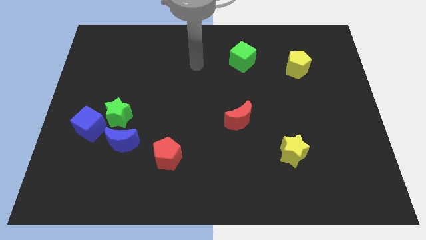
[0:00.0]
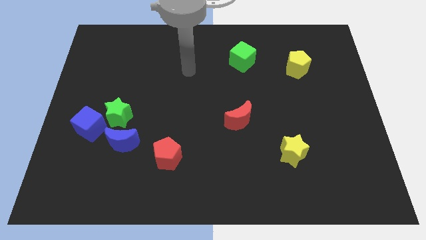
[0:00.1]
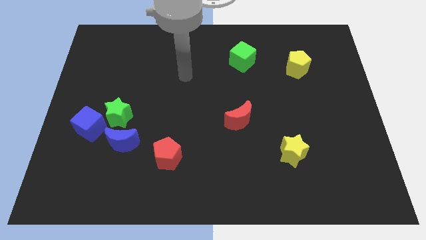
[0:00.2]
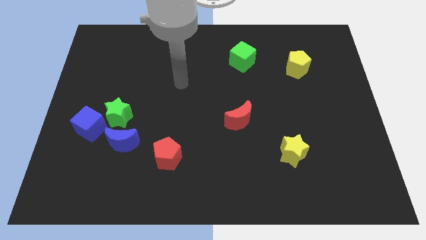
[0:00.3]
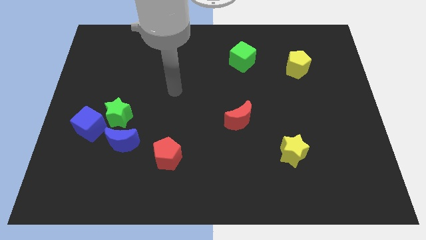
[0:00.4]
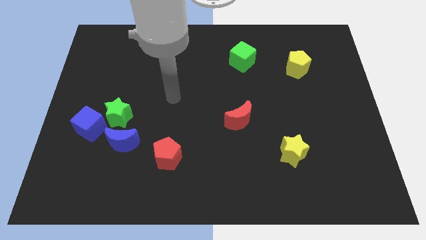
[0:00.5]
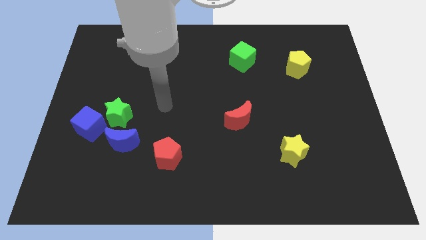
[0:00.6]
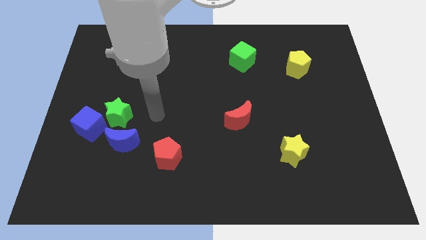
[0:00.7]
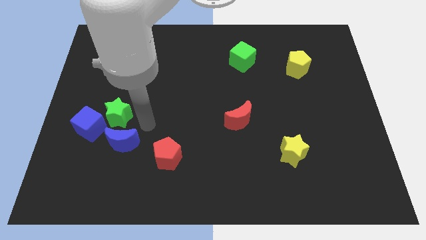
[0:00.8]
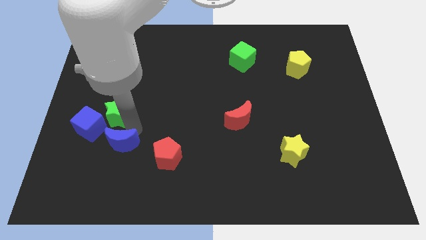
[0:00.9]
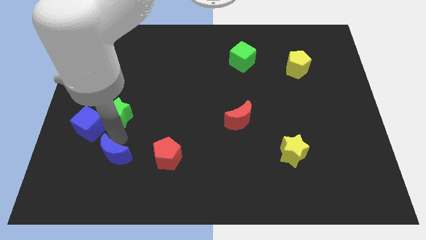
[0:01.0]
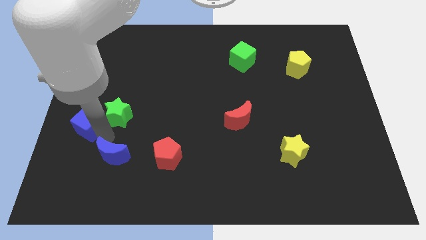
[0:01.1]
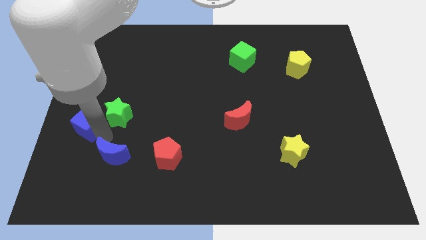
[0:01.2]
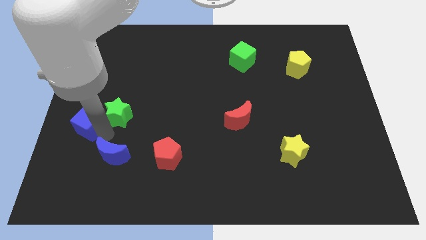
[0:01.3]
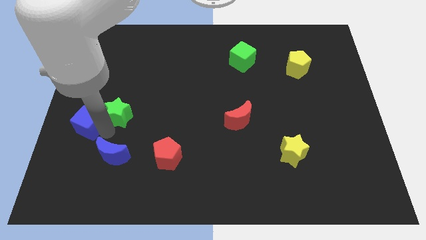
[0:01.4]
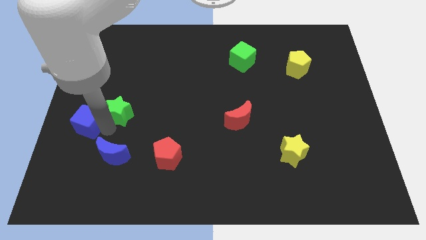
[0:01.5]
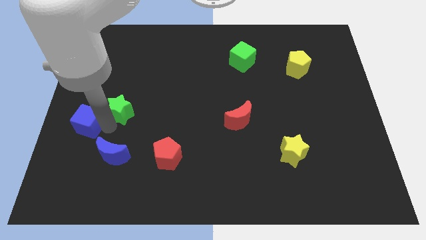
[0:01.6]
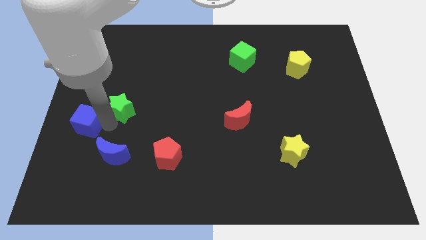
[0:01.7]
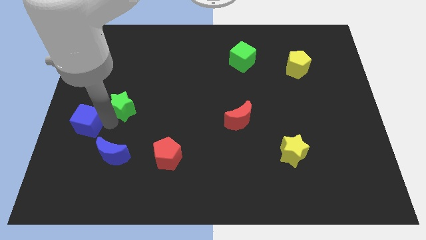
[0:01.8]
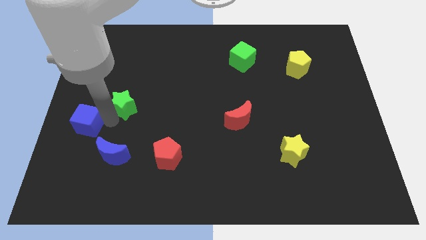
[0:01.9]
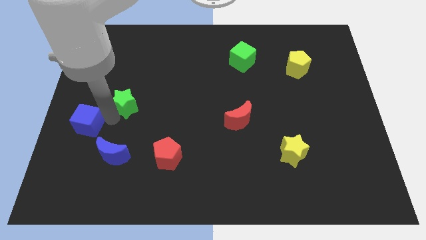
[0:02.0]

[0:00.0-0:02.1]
pull the green star apart from the blue cube and blue moon

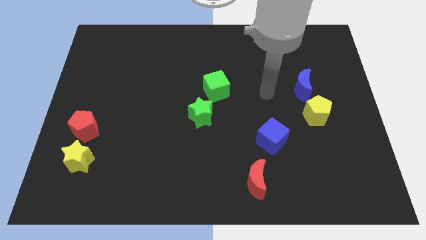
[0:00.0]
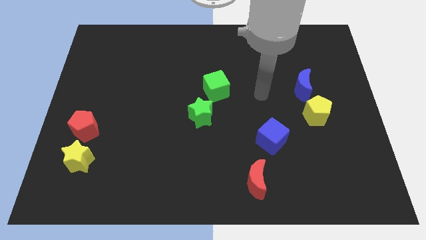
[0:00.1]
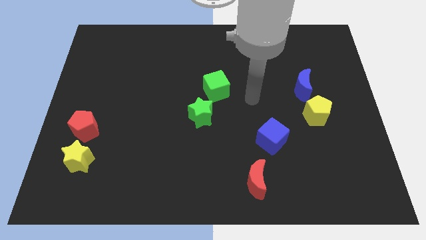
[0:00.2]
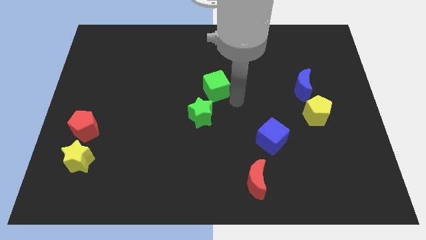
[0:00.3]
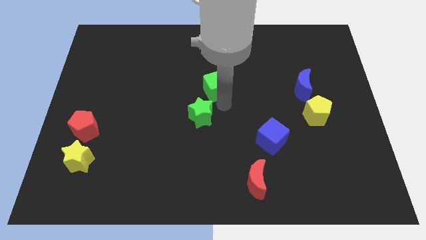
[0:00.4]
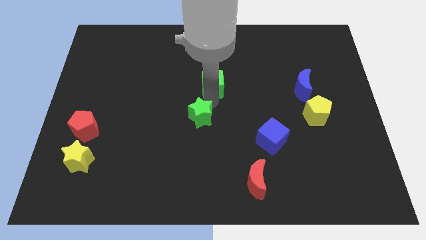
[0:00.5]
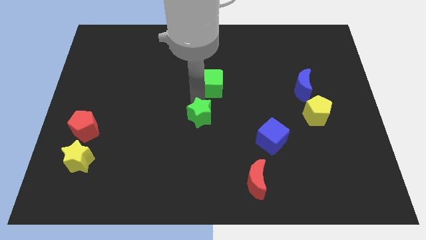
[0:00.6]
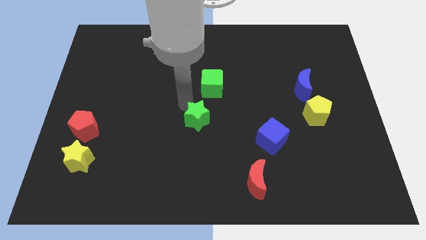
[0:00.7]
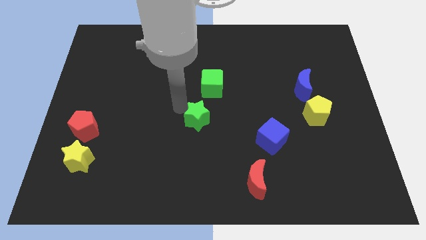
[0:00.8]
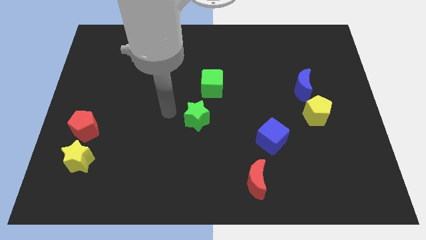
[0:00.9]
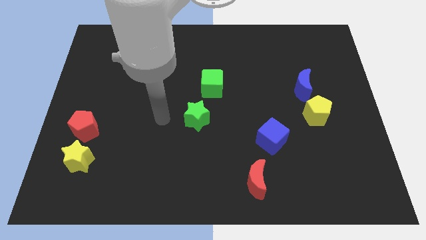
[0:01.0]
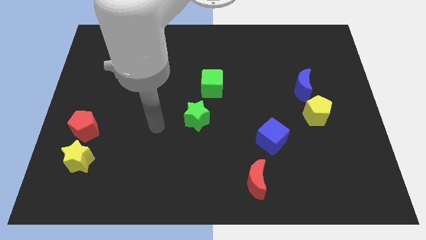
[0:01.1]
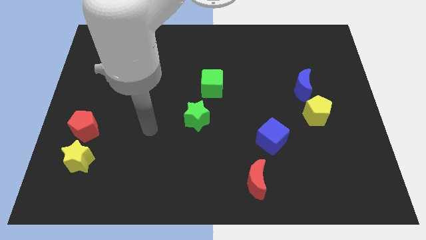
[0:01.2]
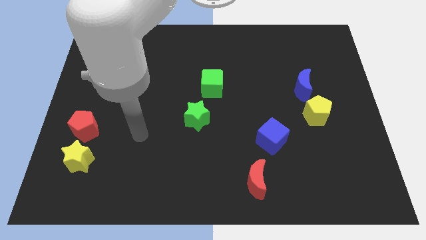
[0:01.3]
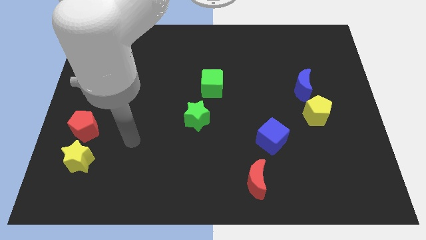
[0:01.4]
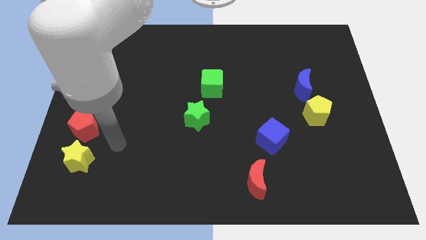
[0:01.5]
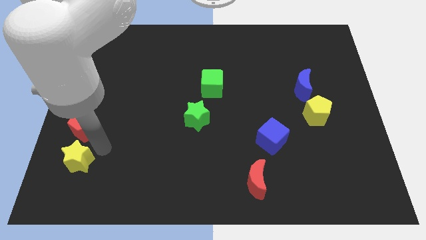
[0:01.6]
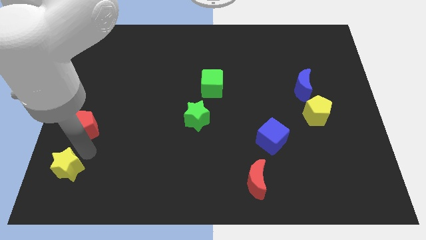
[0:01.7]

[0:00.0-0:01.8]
pull the red pentagon apart from the yellow star

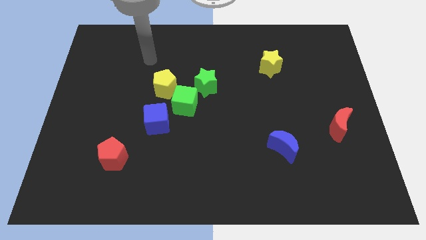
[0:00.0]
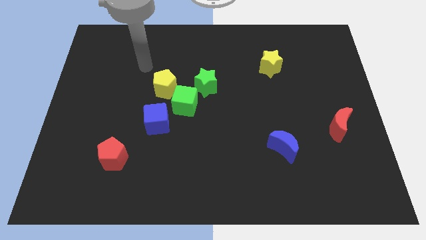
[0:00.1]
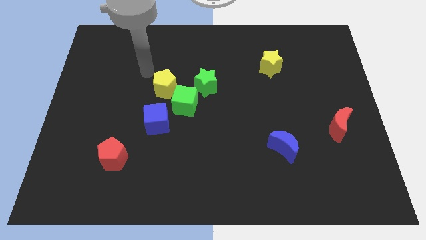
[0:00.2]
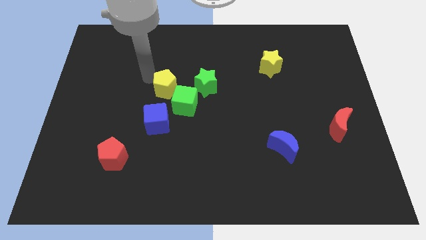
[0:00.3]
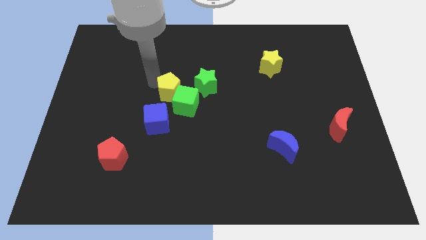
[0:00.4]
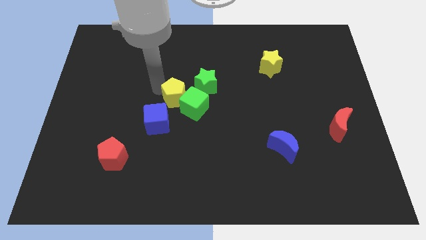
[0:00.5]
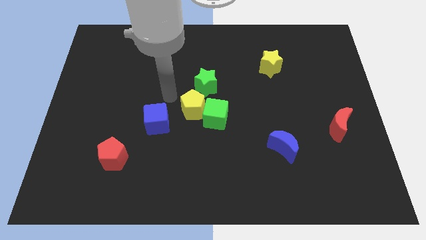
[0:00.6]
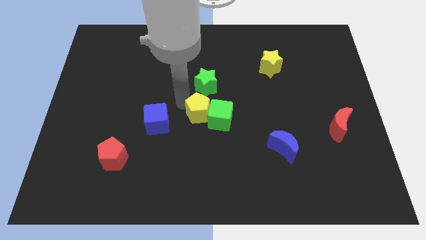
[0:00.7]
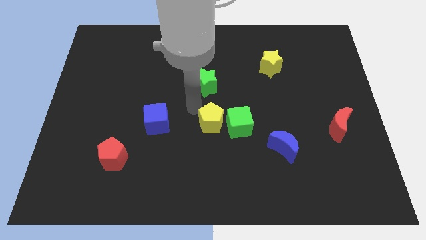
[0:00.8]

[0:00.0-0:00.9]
separate the green cube from the green star, yellow pentagon, and blue cube

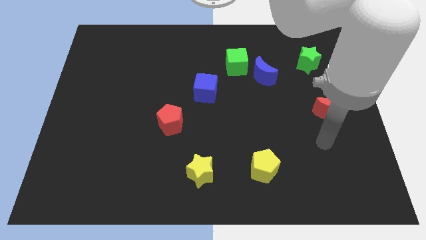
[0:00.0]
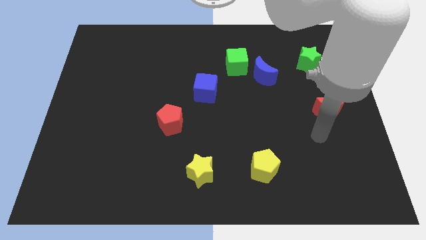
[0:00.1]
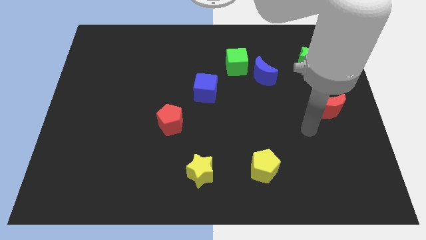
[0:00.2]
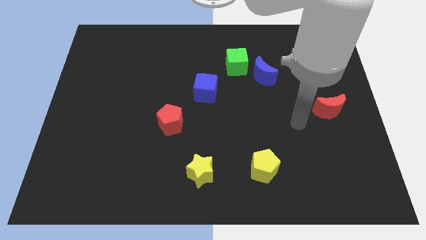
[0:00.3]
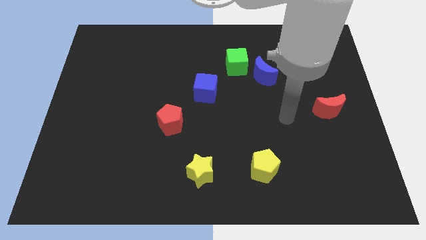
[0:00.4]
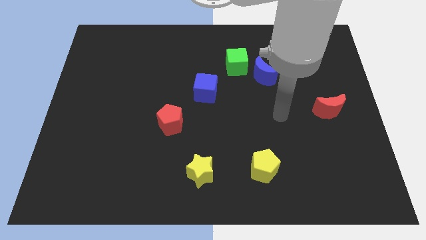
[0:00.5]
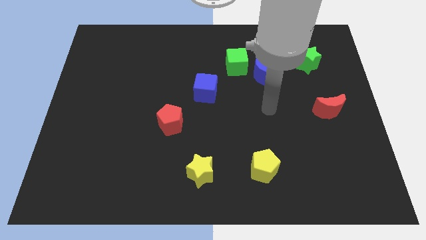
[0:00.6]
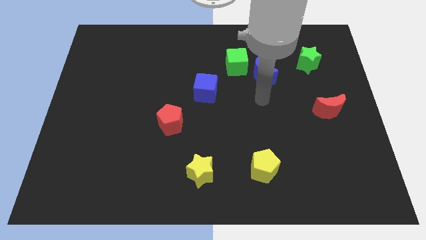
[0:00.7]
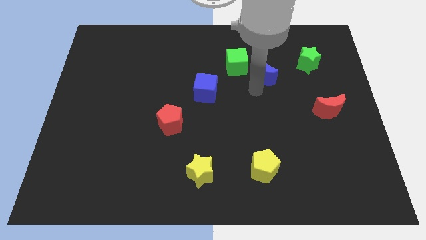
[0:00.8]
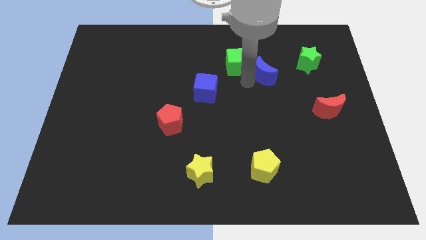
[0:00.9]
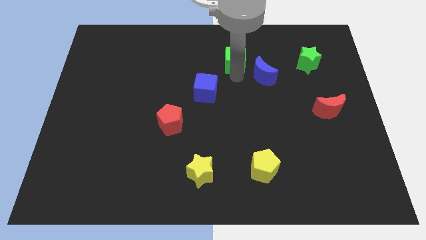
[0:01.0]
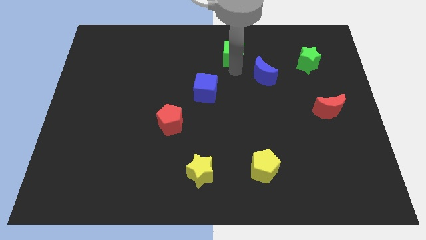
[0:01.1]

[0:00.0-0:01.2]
move the blue moon away from the green cube

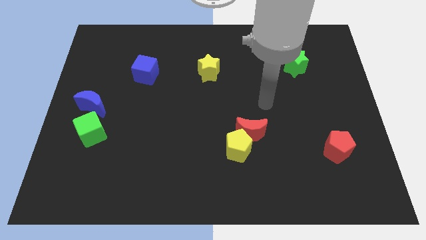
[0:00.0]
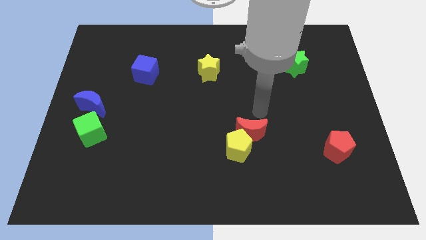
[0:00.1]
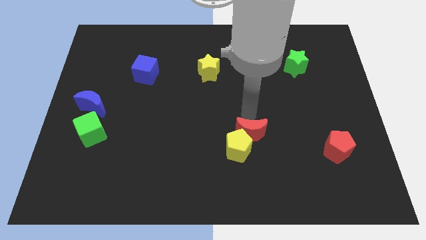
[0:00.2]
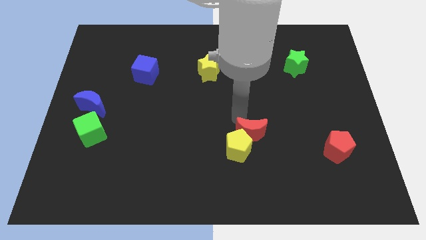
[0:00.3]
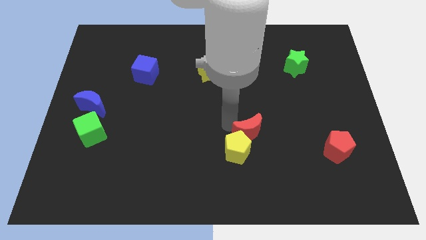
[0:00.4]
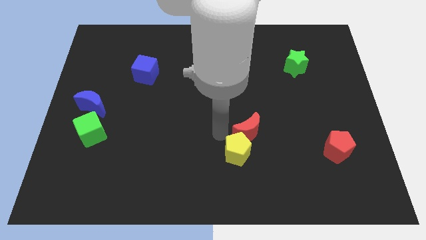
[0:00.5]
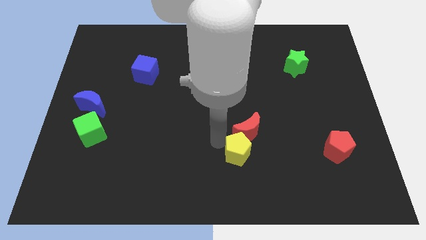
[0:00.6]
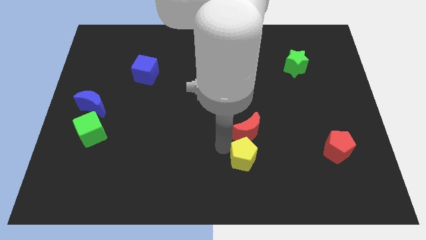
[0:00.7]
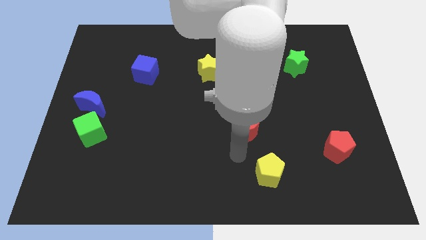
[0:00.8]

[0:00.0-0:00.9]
pull the red moon apart from the yellow pentagon

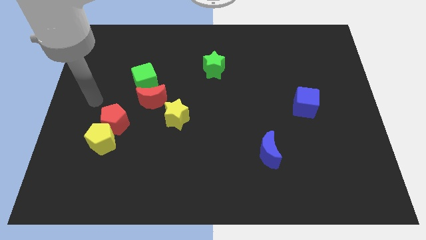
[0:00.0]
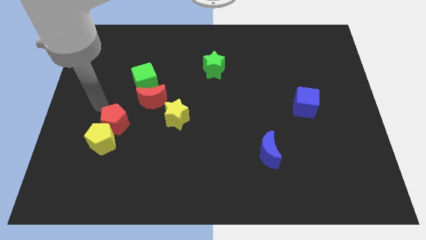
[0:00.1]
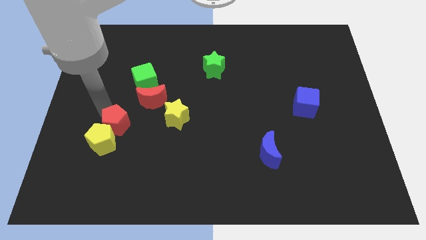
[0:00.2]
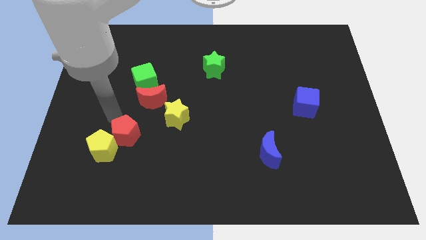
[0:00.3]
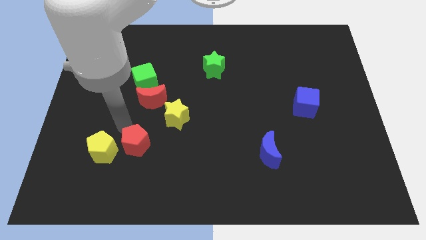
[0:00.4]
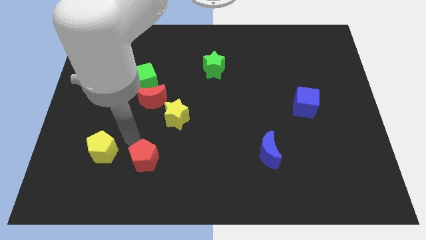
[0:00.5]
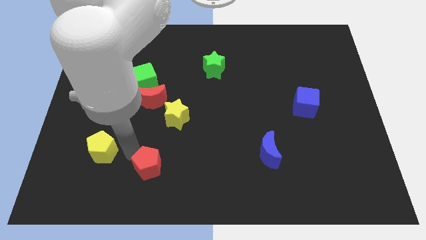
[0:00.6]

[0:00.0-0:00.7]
move the yellow pentagon away from the red pentagon

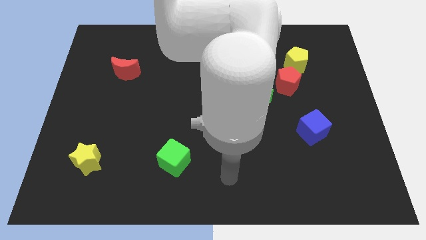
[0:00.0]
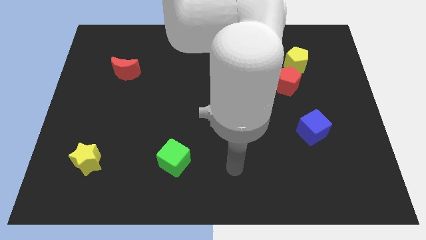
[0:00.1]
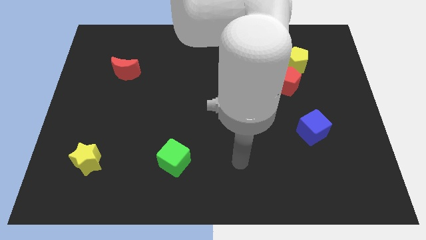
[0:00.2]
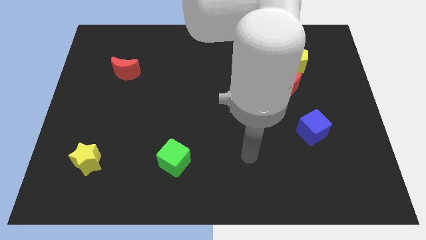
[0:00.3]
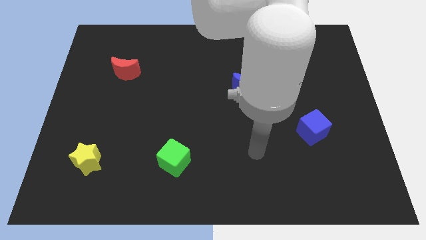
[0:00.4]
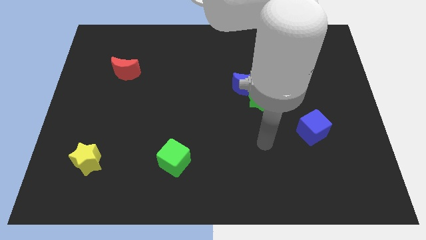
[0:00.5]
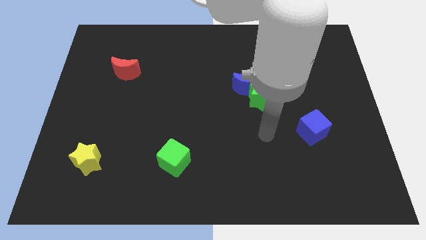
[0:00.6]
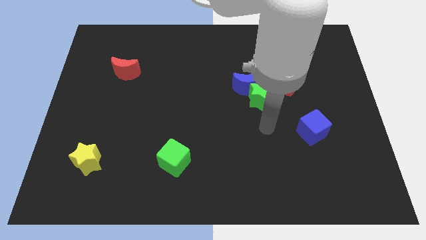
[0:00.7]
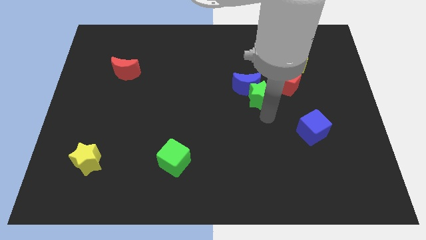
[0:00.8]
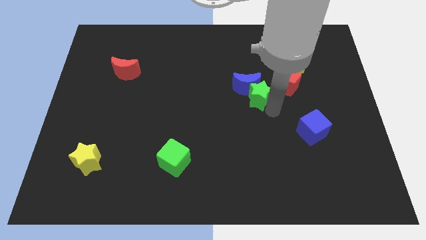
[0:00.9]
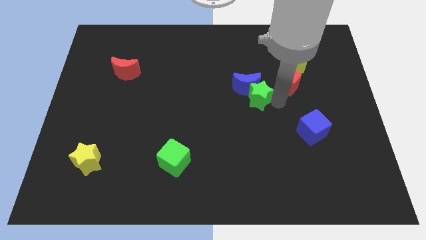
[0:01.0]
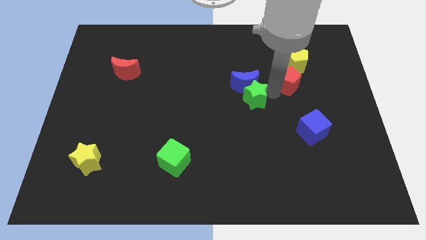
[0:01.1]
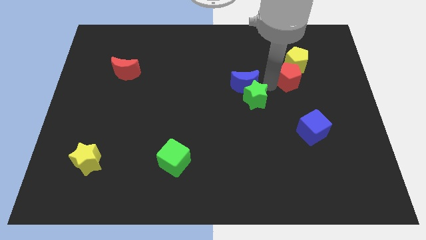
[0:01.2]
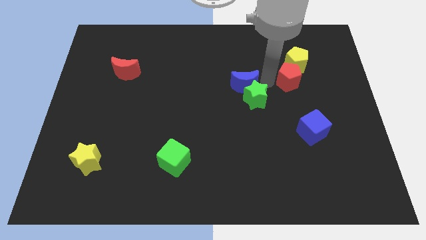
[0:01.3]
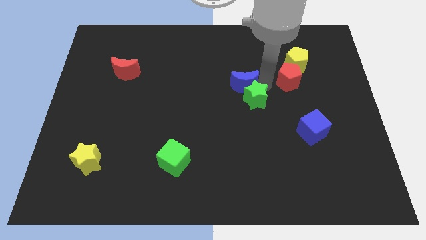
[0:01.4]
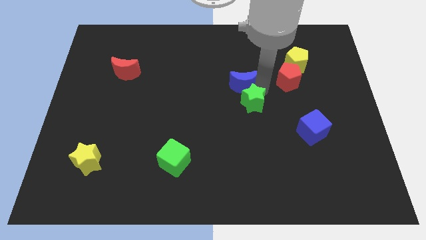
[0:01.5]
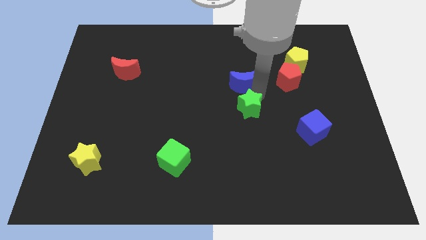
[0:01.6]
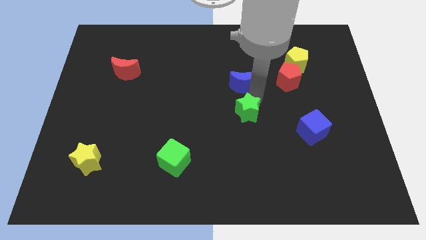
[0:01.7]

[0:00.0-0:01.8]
move the green star away from the blue moon and red pentagon
